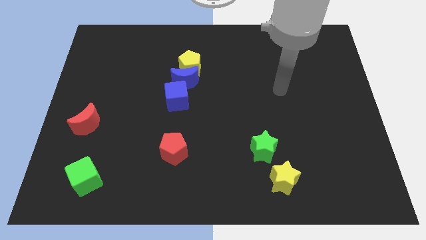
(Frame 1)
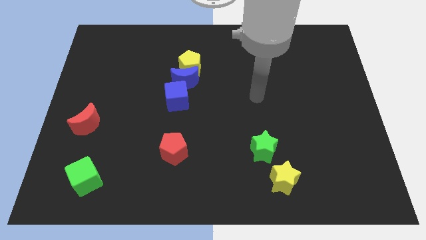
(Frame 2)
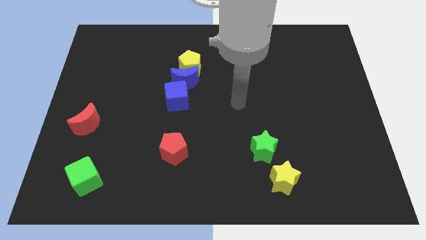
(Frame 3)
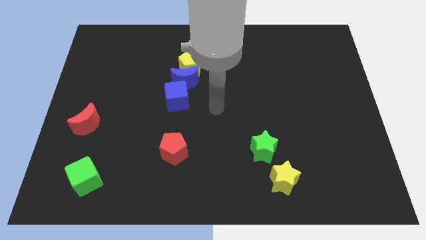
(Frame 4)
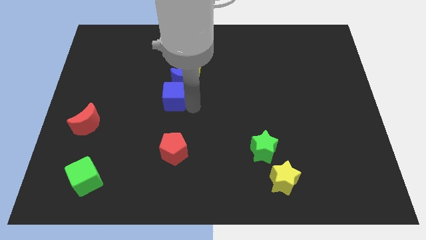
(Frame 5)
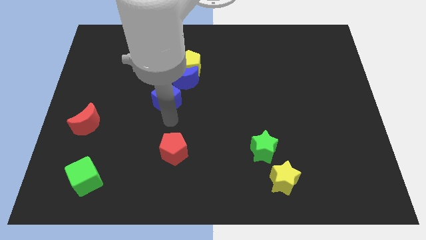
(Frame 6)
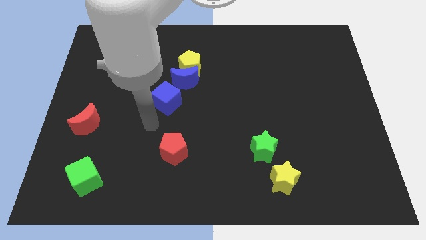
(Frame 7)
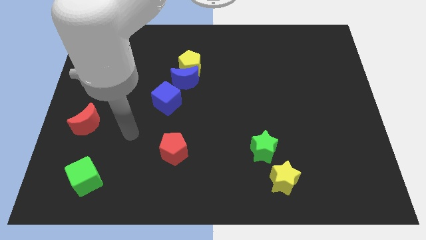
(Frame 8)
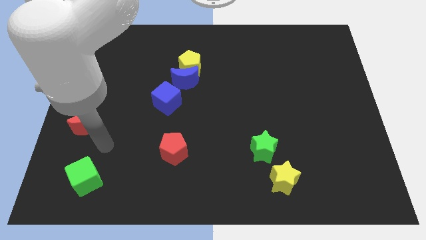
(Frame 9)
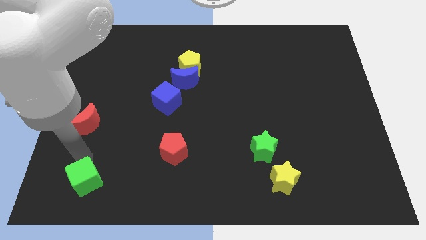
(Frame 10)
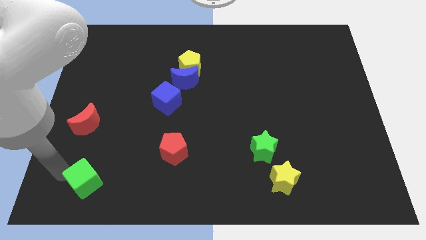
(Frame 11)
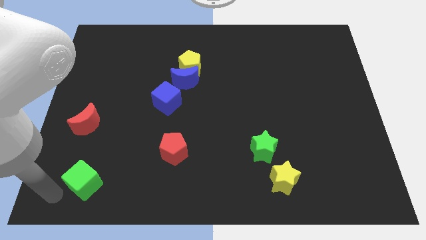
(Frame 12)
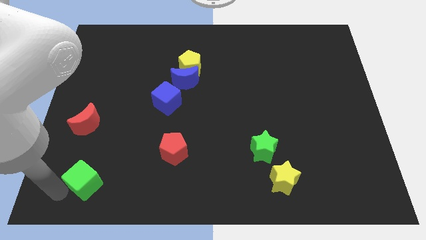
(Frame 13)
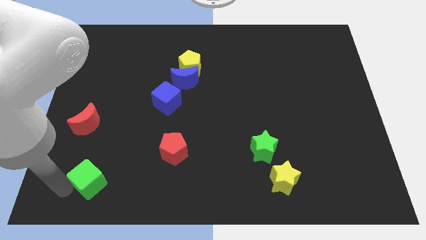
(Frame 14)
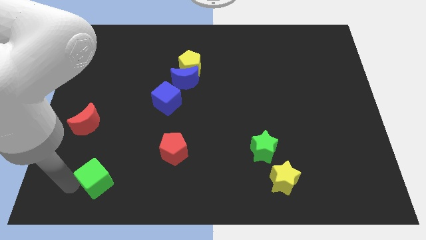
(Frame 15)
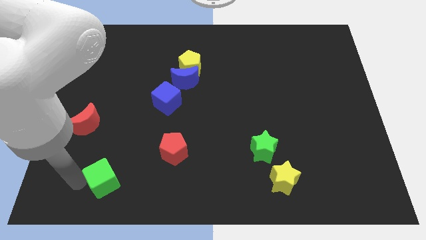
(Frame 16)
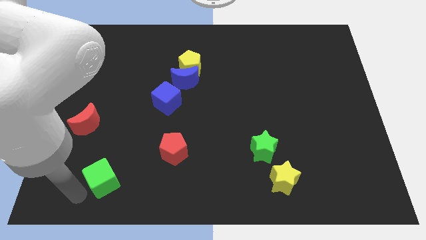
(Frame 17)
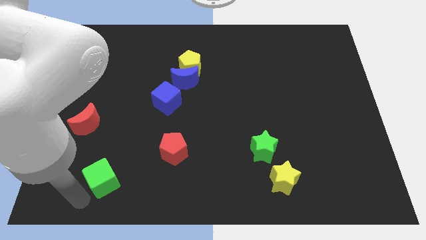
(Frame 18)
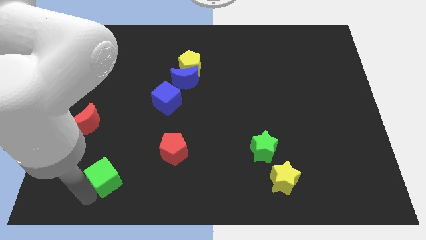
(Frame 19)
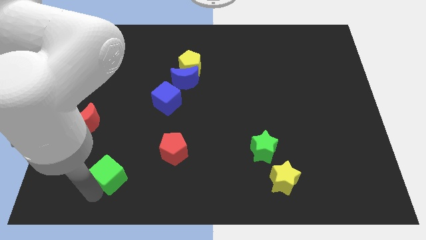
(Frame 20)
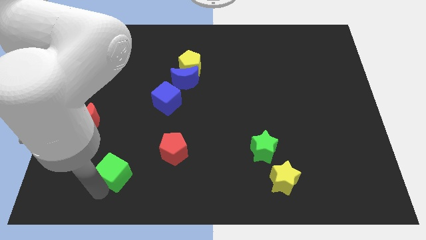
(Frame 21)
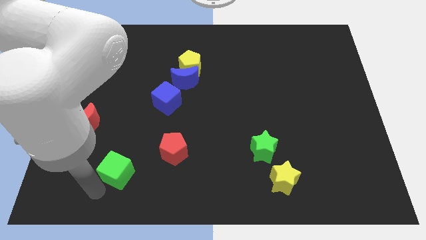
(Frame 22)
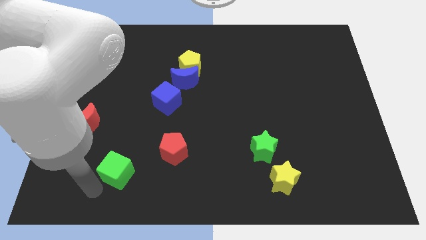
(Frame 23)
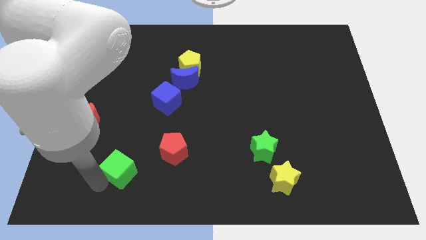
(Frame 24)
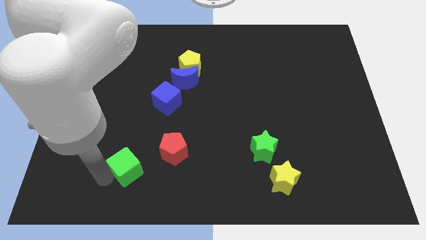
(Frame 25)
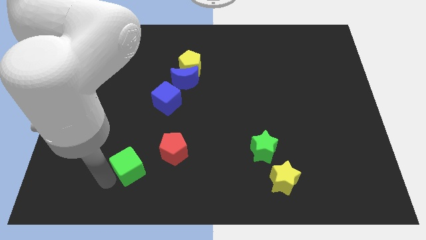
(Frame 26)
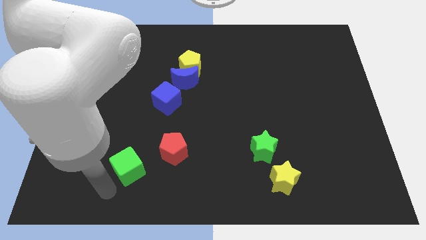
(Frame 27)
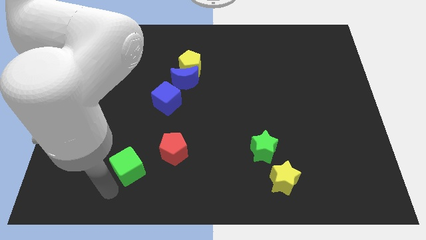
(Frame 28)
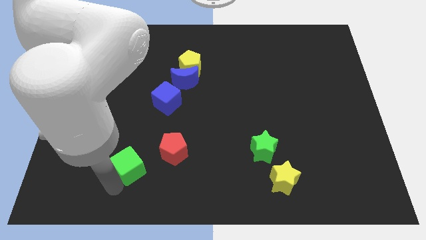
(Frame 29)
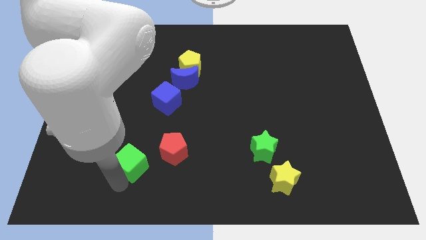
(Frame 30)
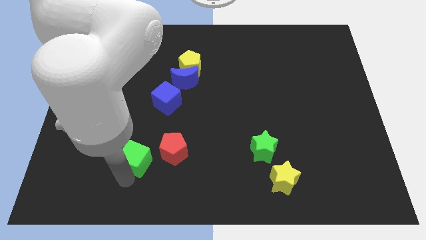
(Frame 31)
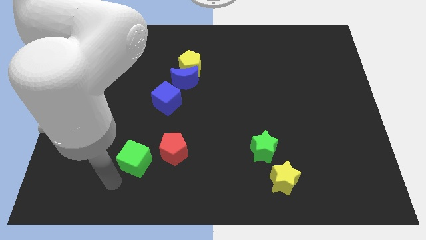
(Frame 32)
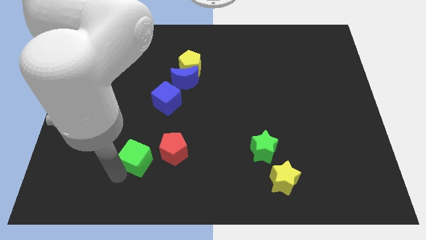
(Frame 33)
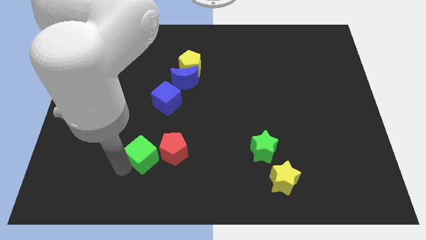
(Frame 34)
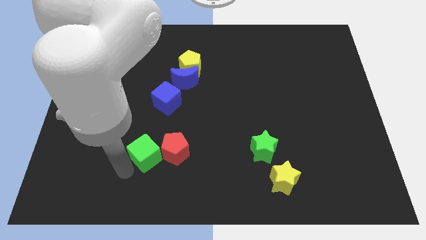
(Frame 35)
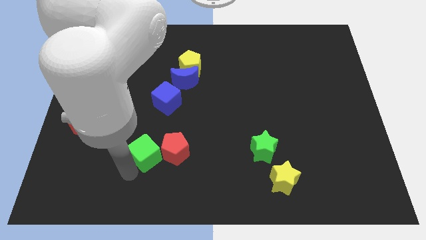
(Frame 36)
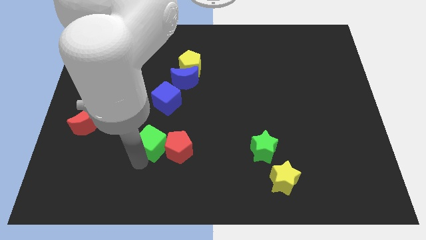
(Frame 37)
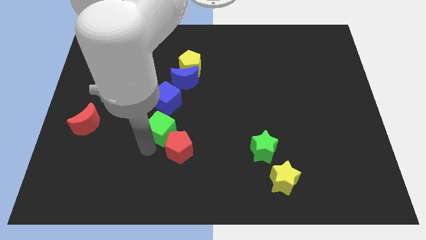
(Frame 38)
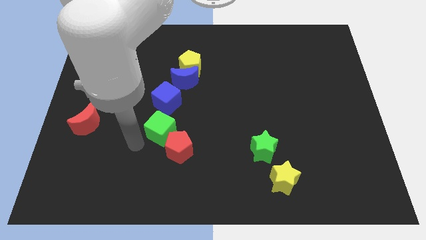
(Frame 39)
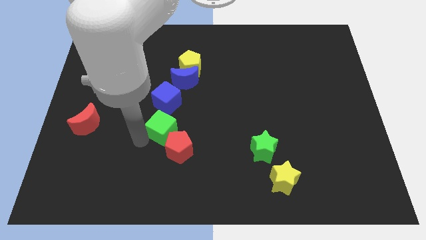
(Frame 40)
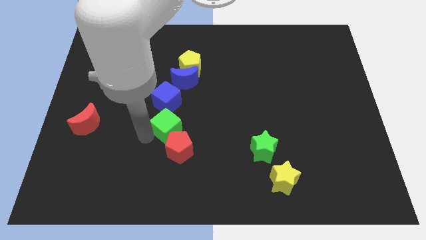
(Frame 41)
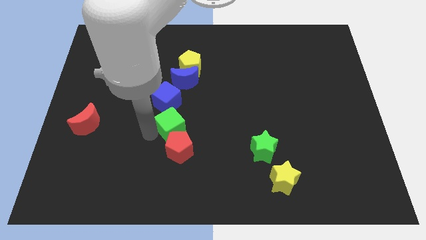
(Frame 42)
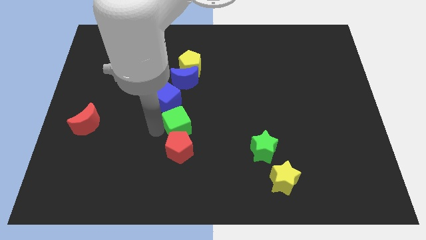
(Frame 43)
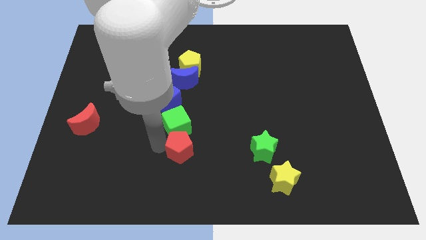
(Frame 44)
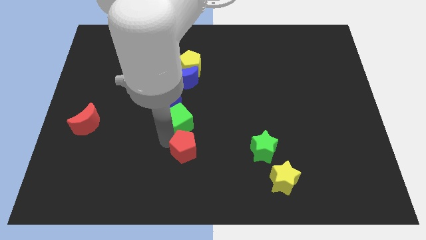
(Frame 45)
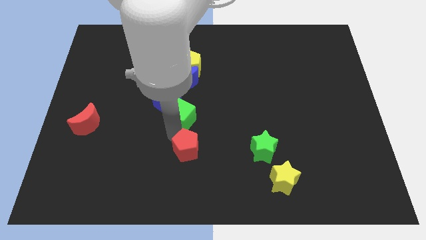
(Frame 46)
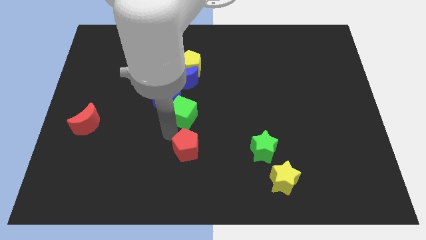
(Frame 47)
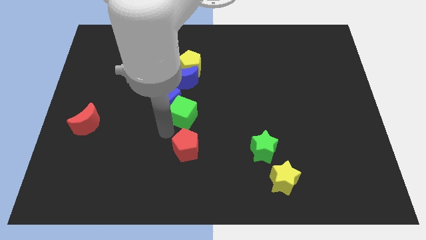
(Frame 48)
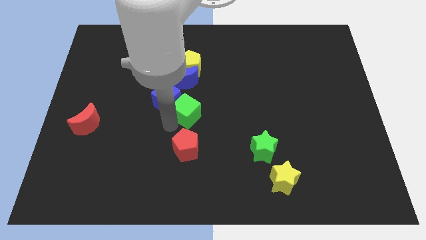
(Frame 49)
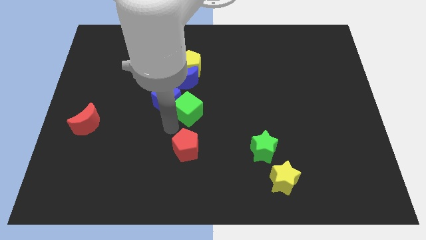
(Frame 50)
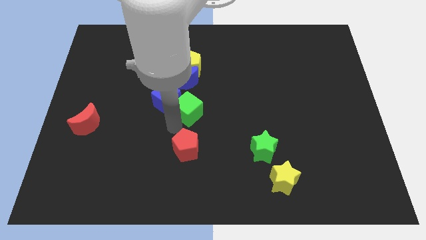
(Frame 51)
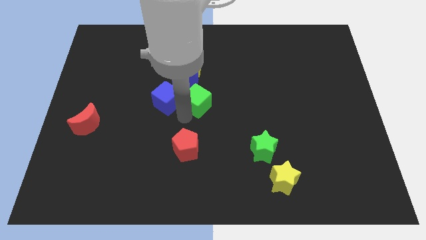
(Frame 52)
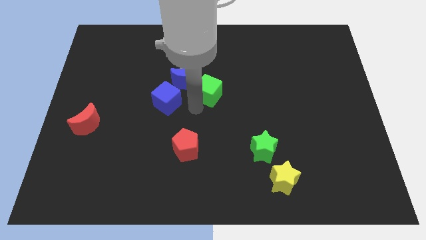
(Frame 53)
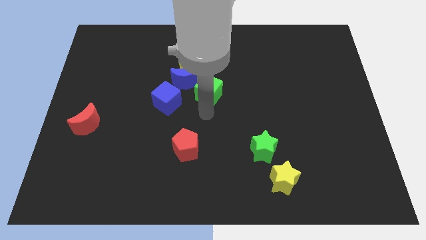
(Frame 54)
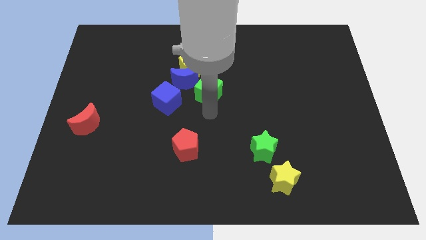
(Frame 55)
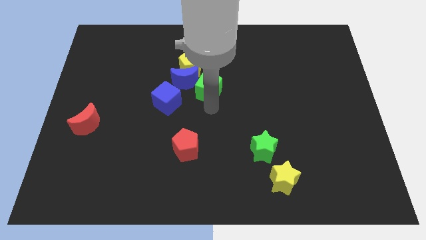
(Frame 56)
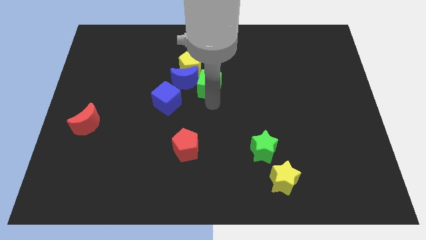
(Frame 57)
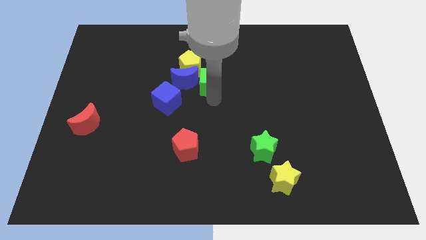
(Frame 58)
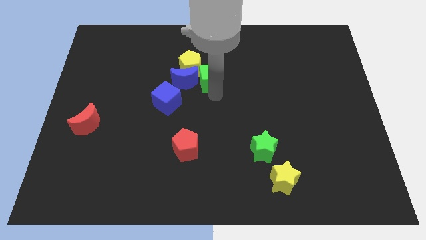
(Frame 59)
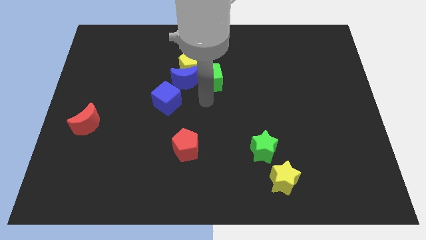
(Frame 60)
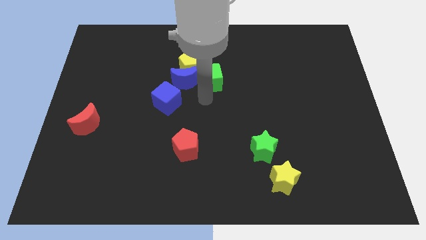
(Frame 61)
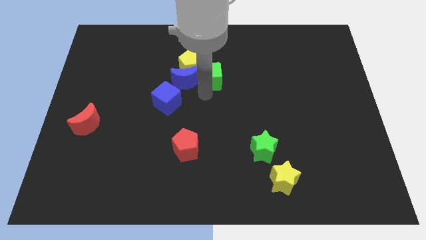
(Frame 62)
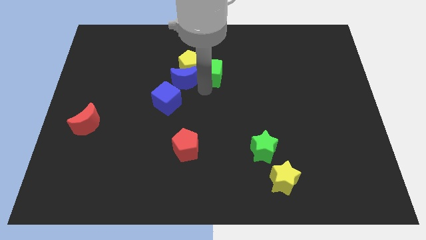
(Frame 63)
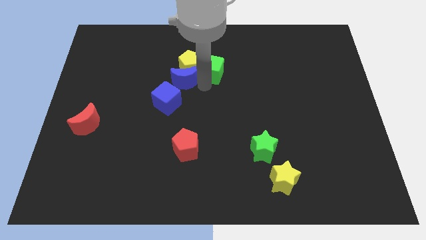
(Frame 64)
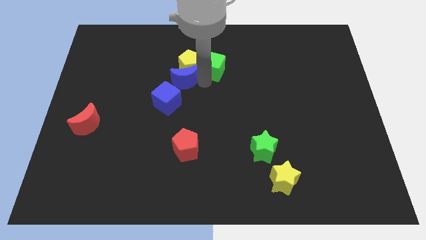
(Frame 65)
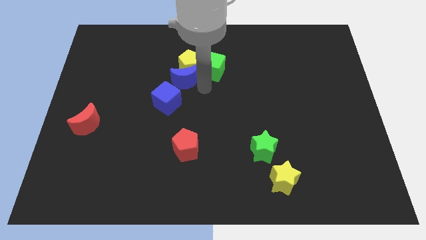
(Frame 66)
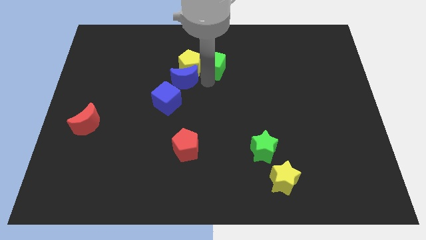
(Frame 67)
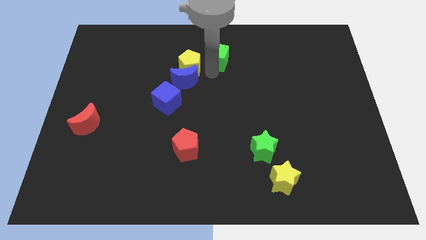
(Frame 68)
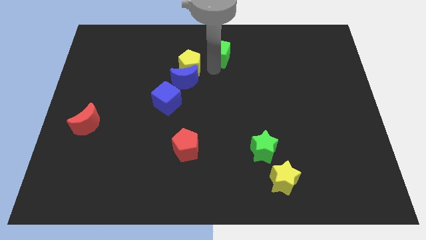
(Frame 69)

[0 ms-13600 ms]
push the green cube to the towards your base

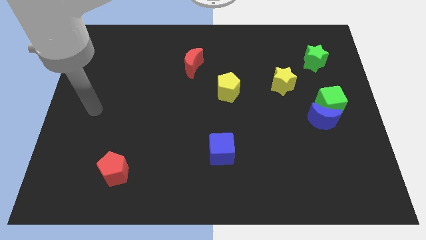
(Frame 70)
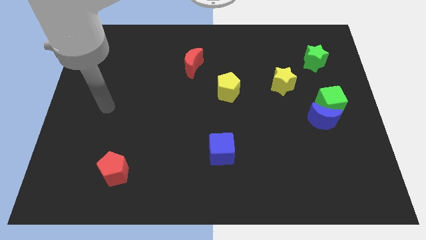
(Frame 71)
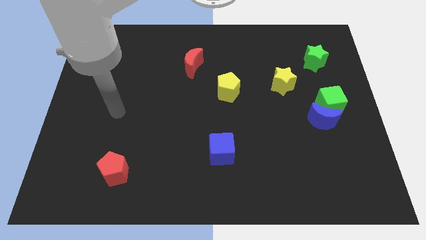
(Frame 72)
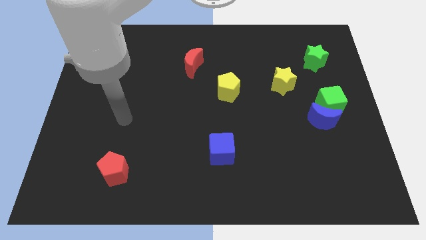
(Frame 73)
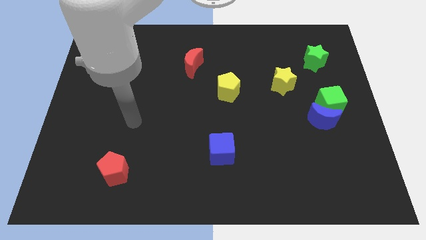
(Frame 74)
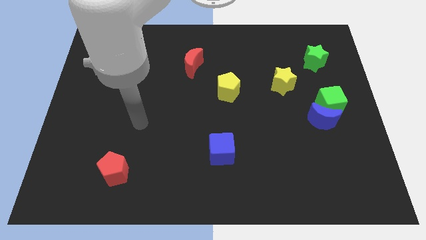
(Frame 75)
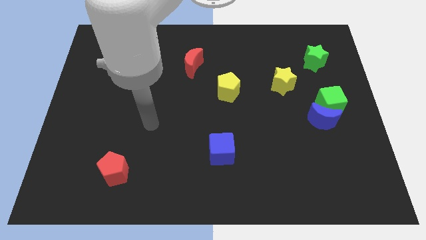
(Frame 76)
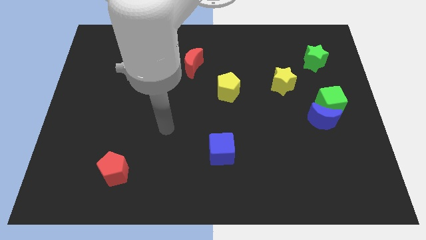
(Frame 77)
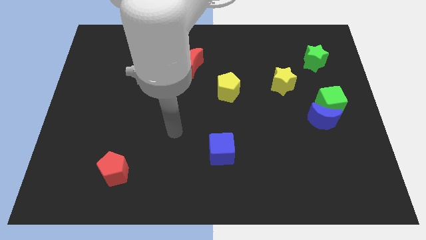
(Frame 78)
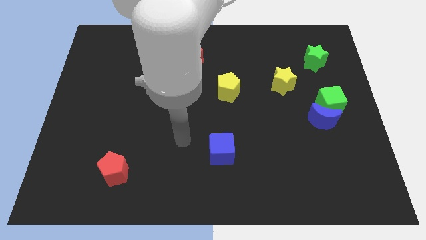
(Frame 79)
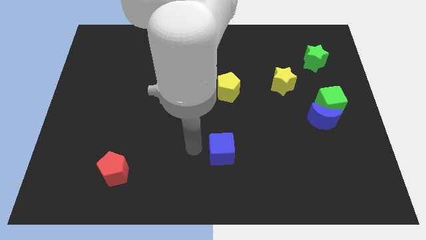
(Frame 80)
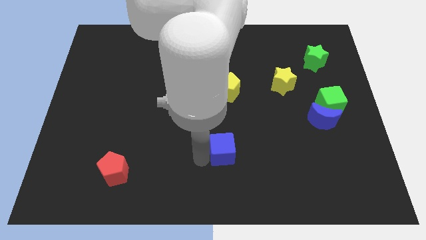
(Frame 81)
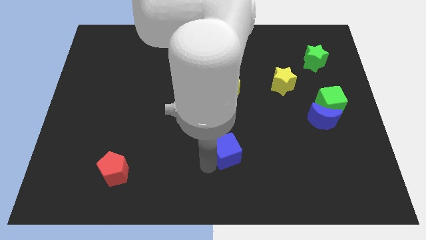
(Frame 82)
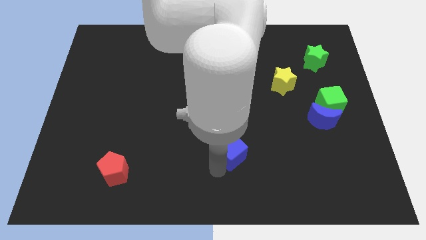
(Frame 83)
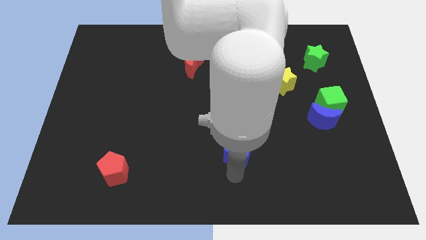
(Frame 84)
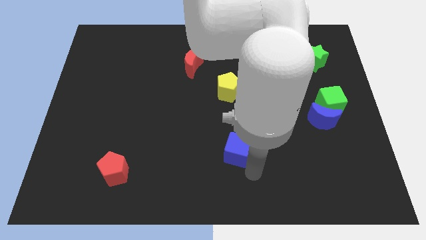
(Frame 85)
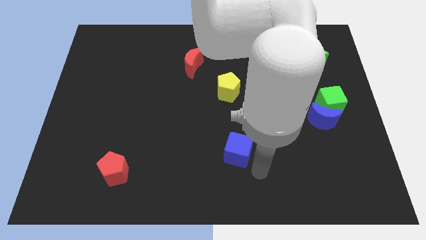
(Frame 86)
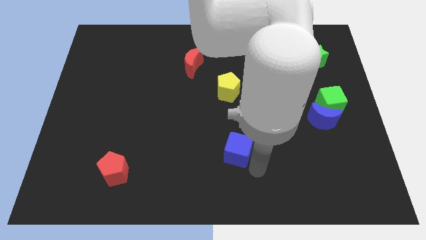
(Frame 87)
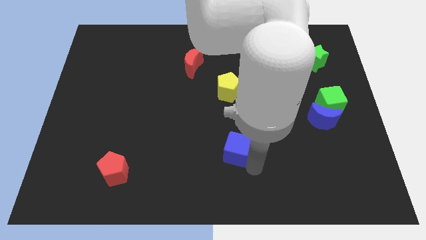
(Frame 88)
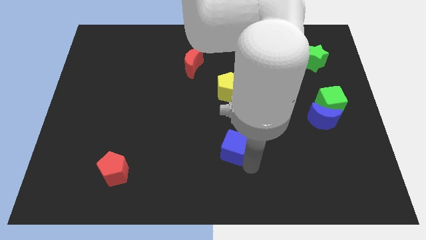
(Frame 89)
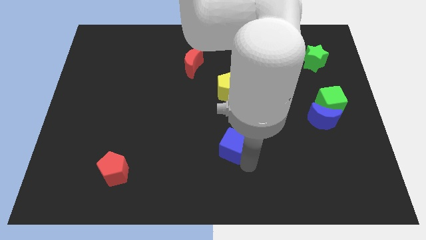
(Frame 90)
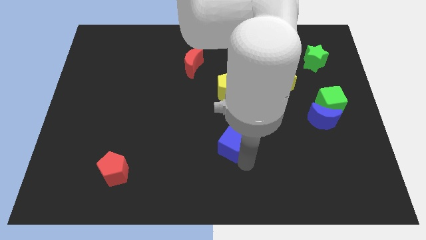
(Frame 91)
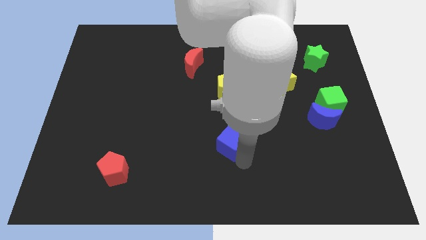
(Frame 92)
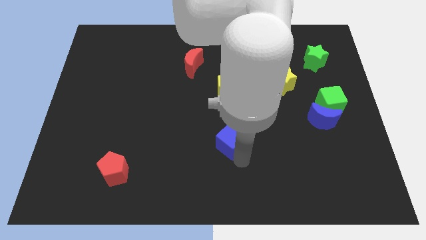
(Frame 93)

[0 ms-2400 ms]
push the blue cube to the center
